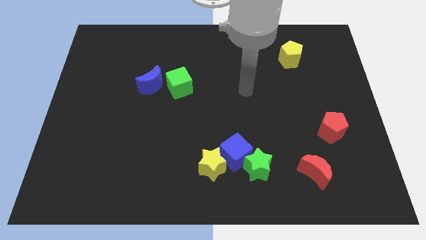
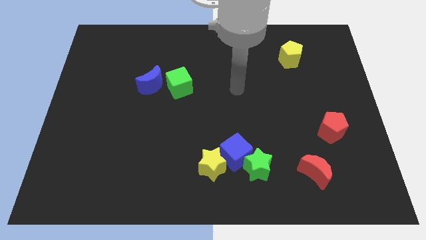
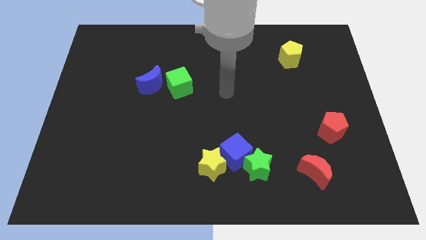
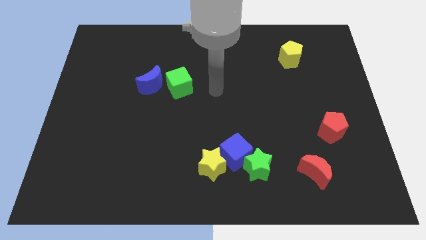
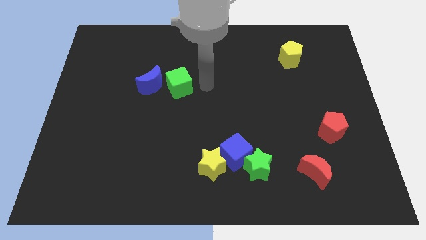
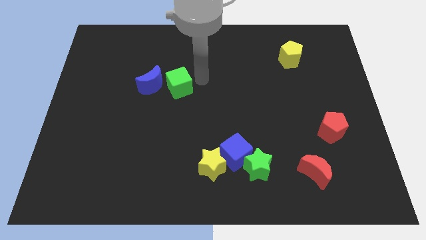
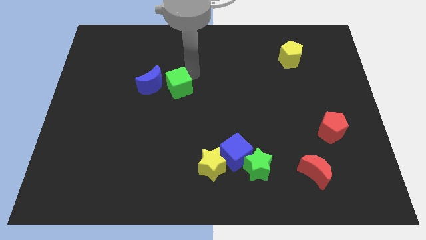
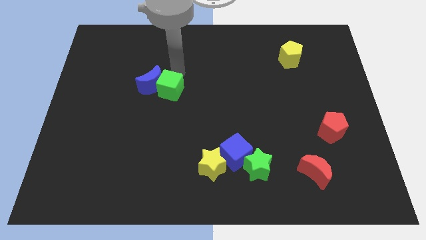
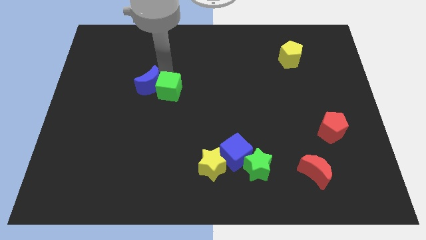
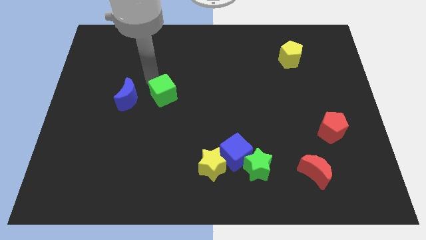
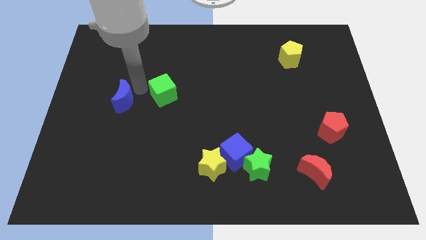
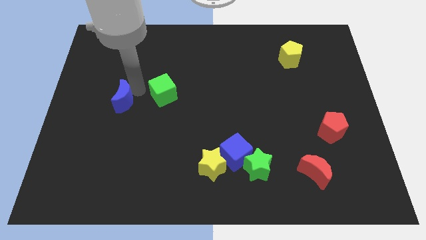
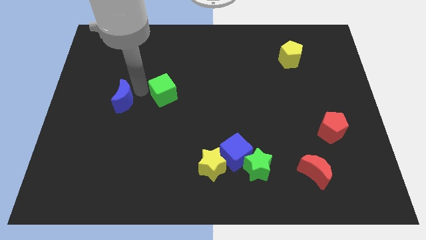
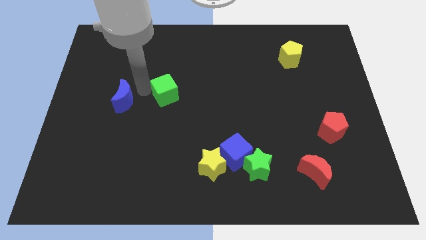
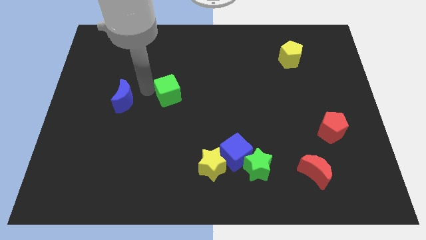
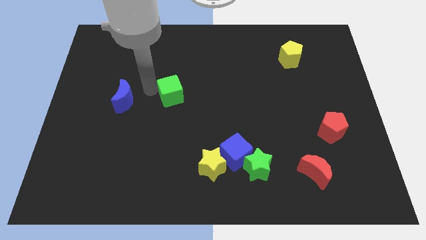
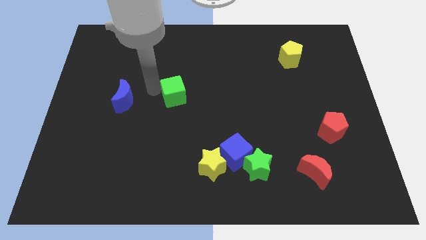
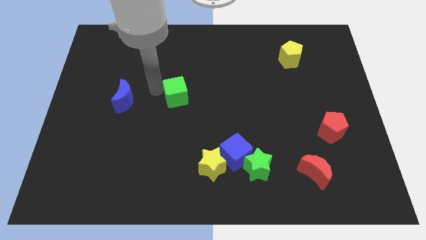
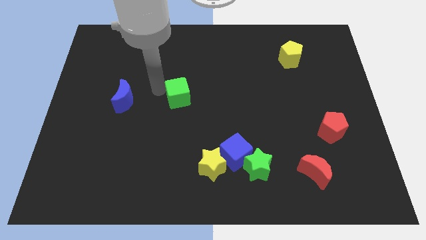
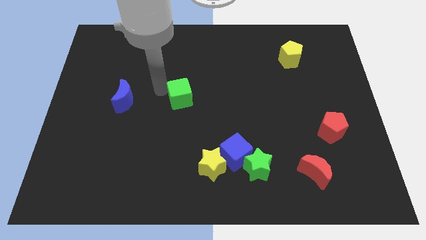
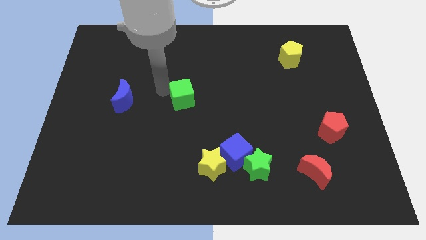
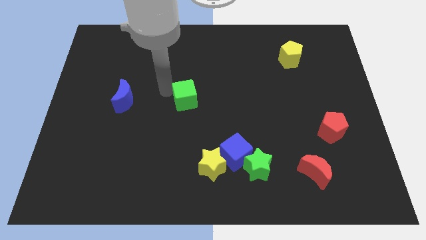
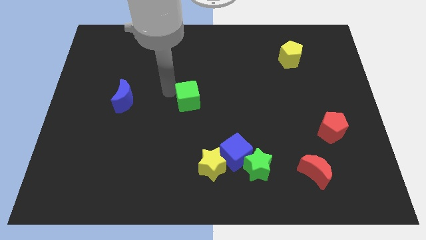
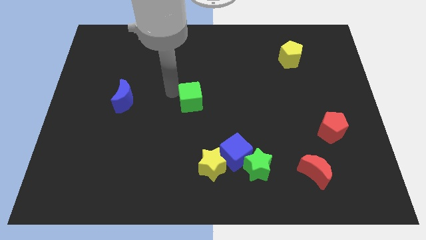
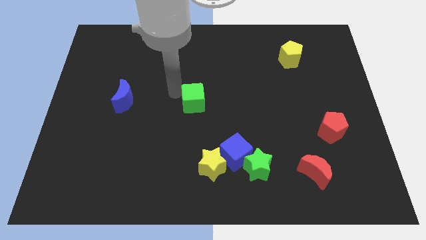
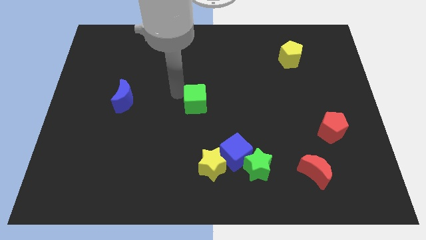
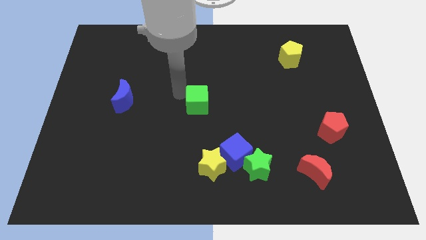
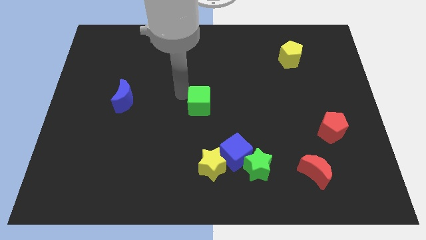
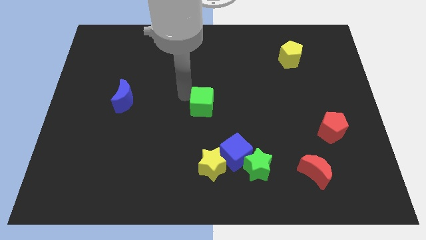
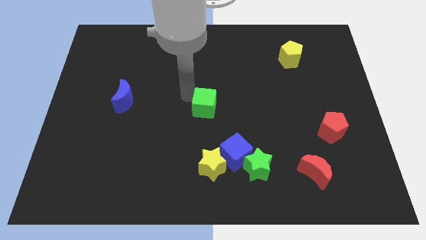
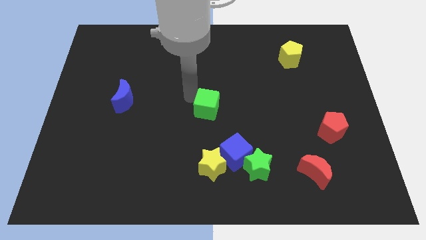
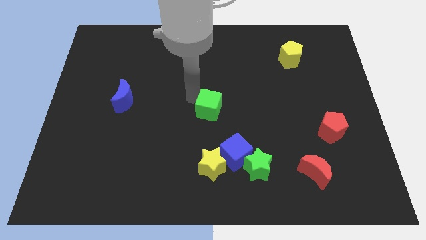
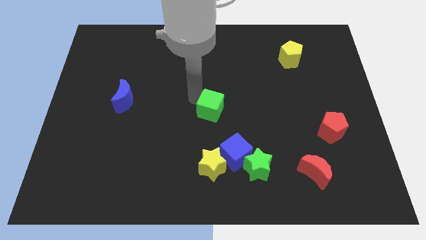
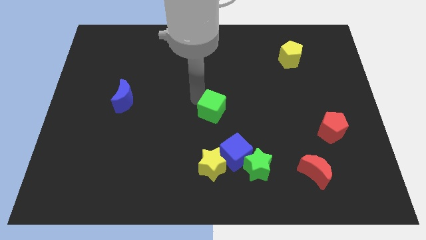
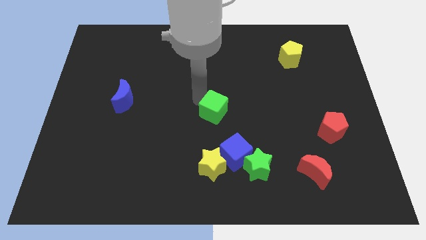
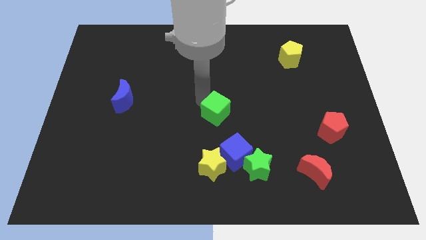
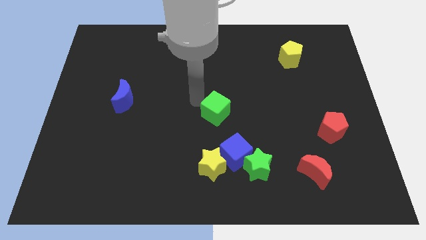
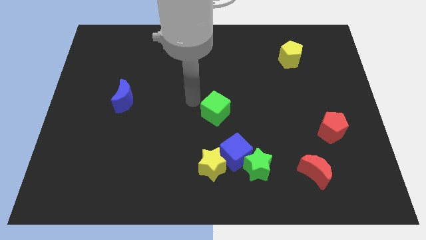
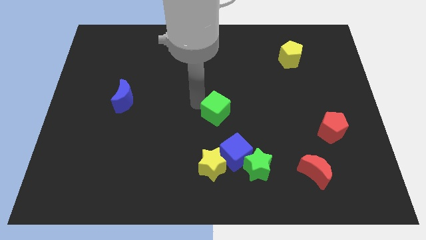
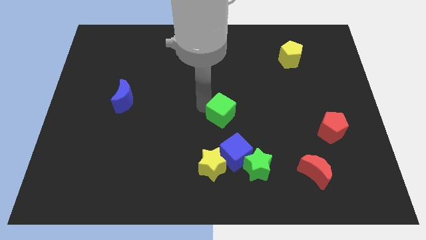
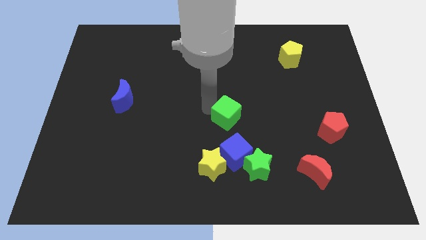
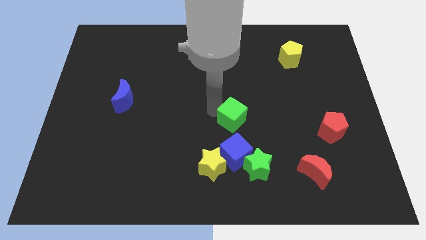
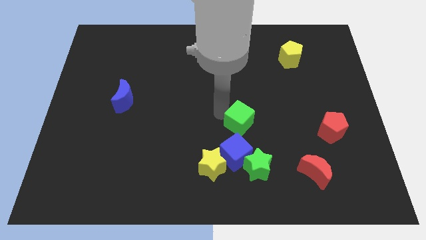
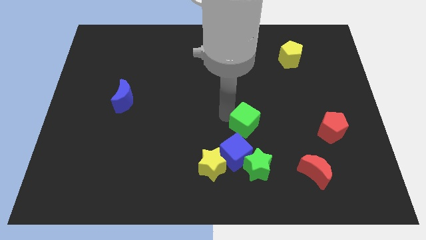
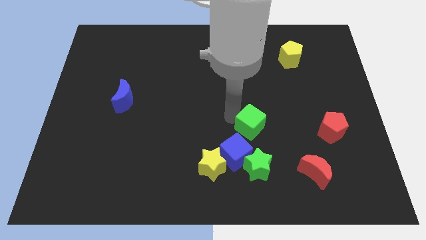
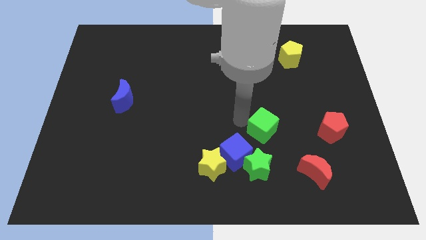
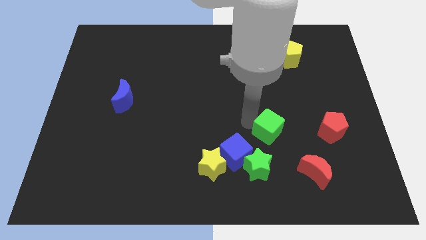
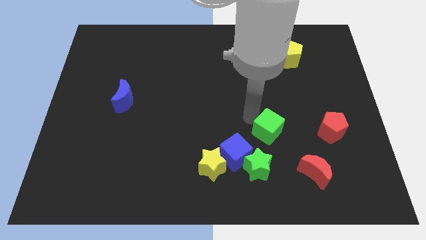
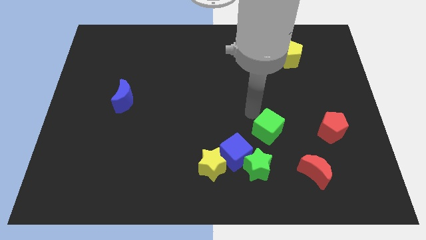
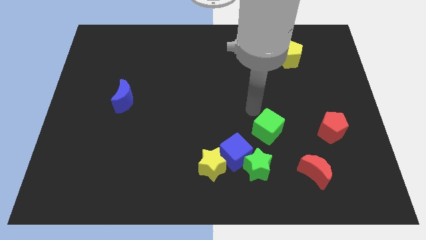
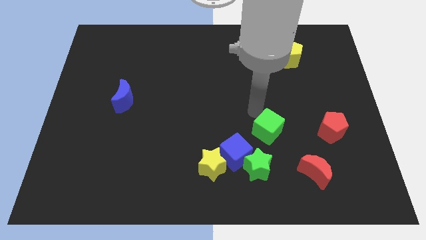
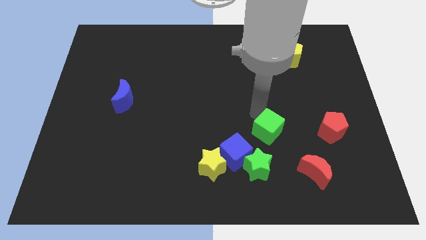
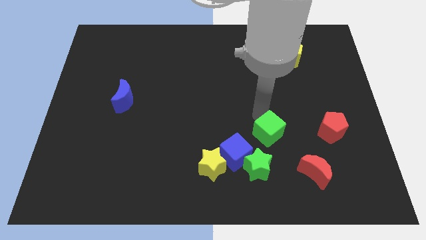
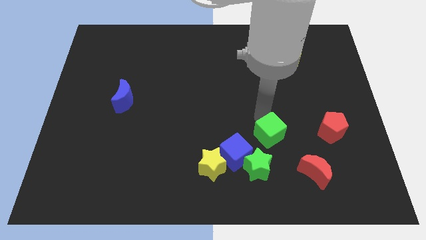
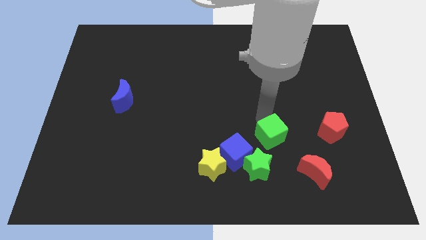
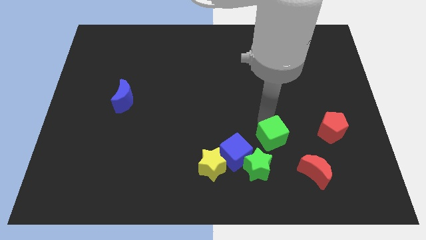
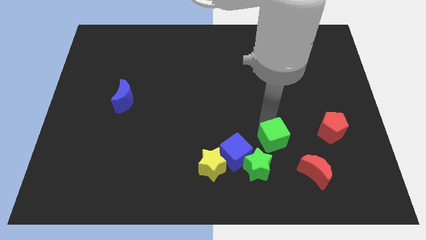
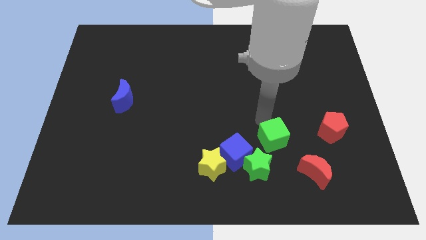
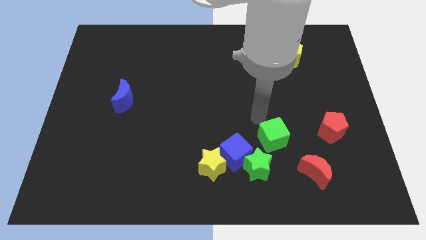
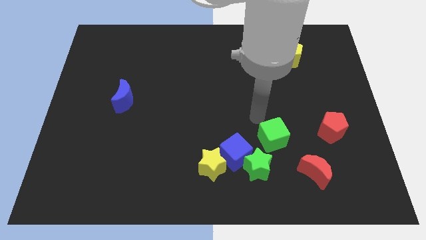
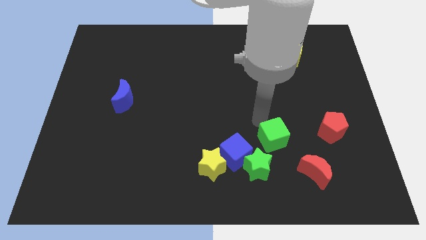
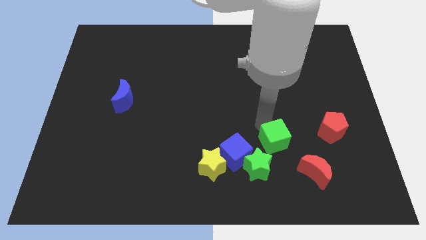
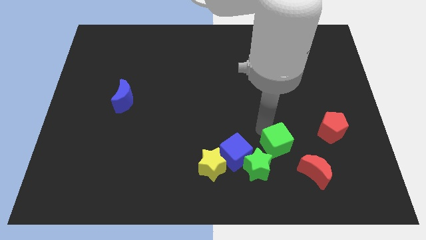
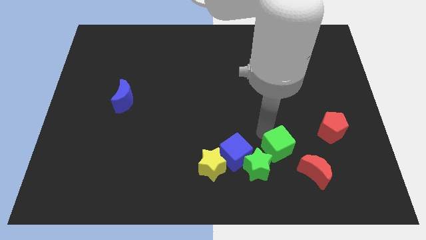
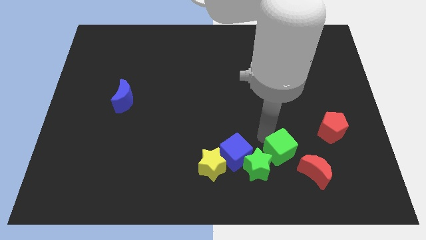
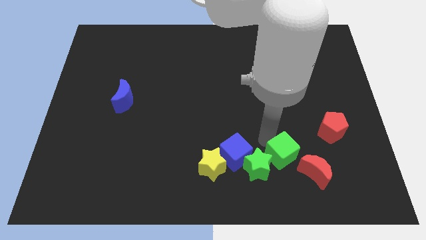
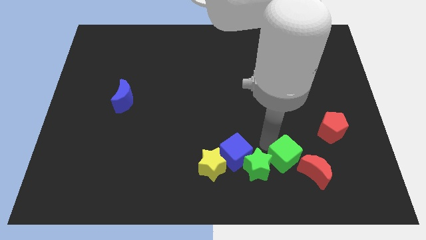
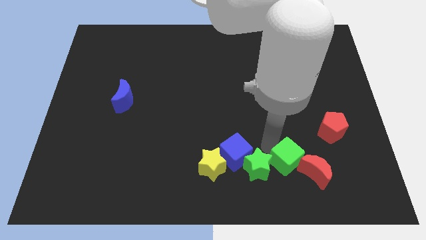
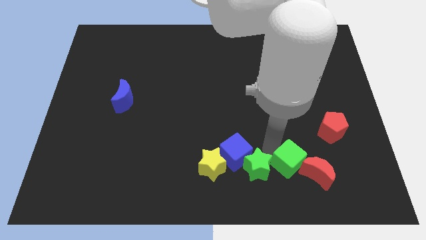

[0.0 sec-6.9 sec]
slide the green cube close to the red moon
